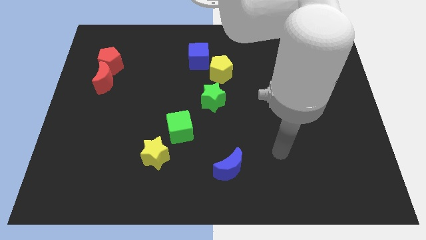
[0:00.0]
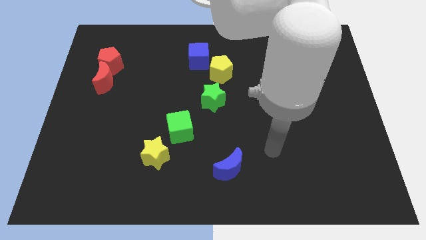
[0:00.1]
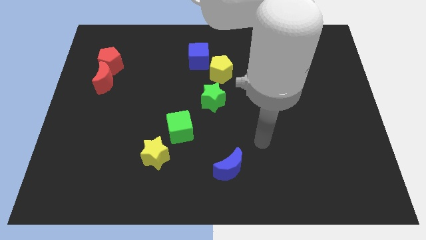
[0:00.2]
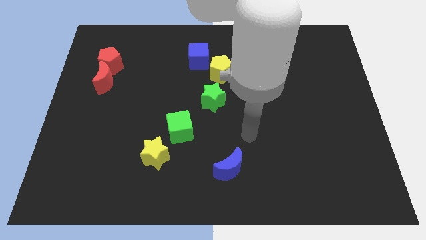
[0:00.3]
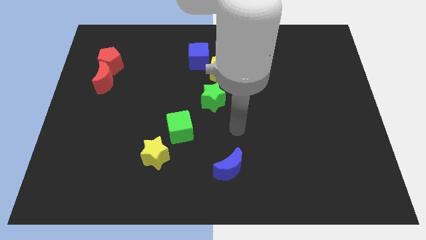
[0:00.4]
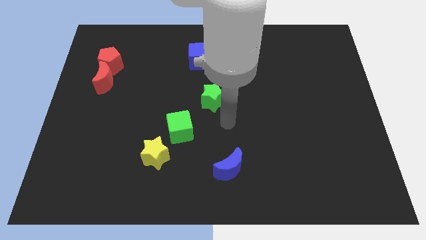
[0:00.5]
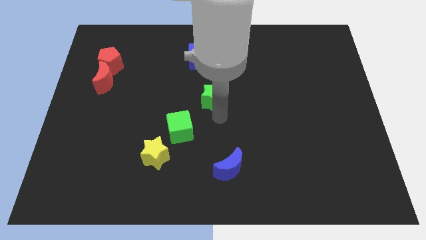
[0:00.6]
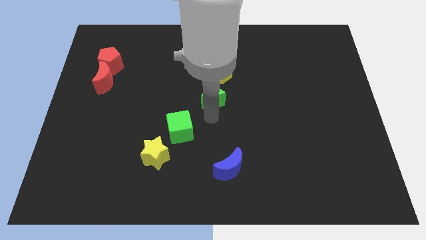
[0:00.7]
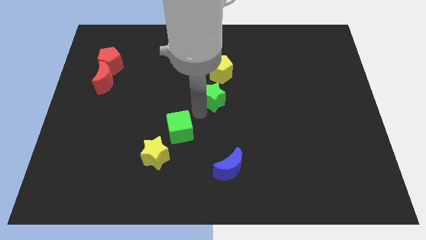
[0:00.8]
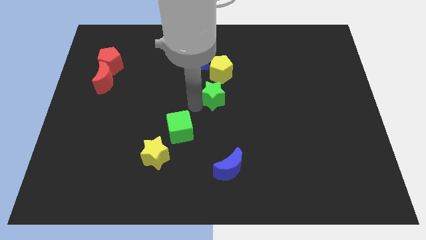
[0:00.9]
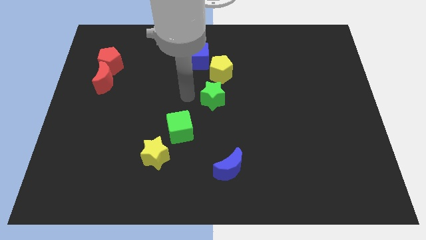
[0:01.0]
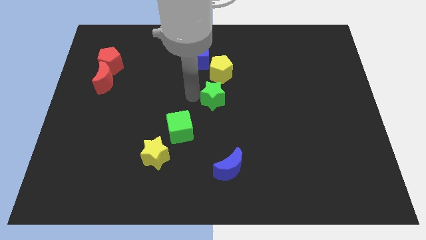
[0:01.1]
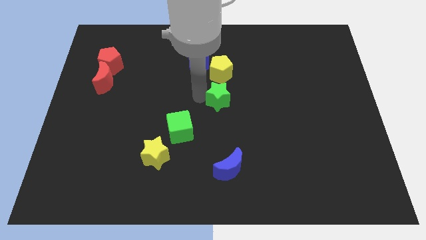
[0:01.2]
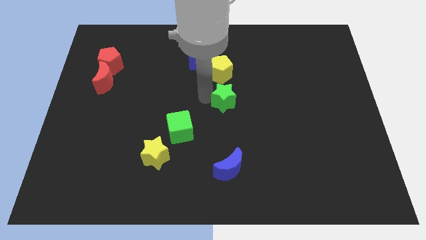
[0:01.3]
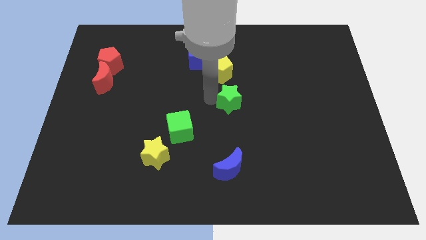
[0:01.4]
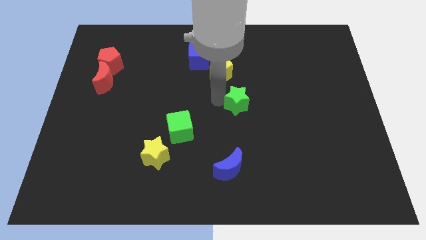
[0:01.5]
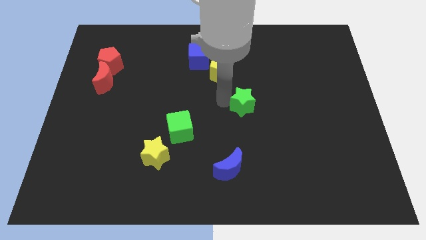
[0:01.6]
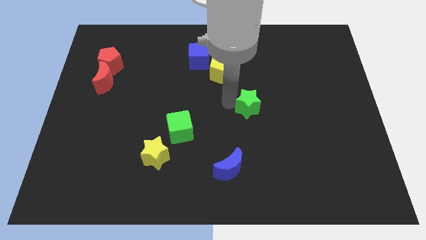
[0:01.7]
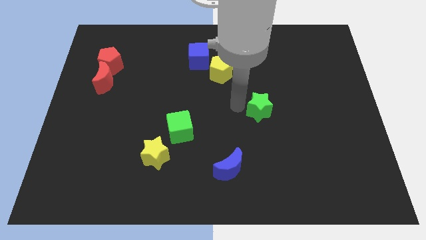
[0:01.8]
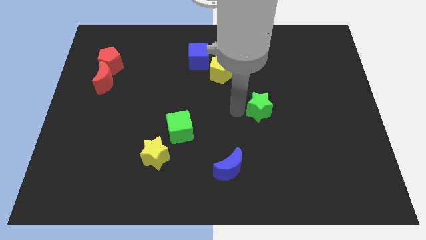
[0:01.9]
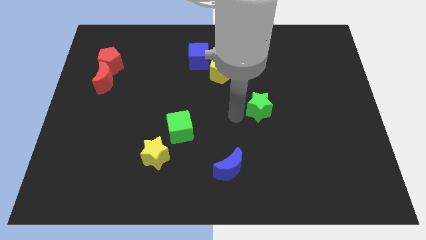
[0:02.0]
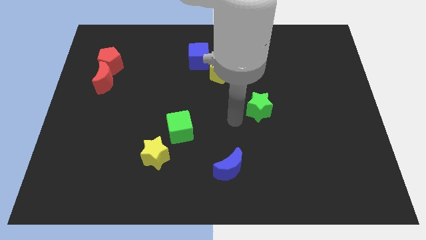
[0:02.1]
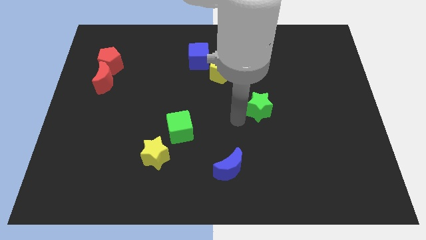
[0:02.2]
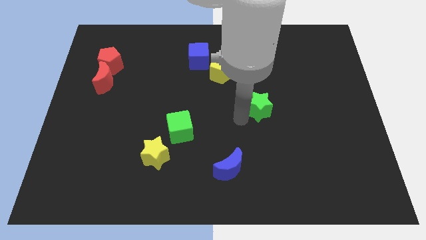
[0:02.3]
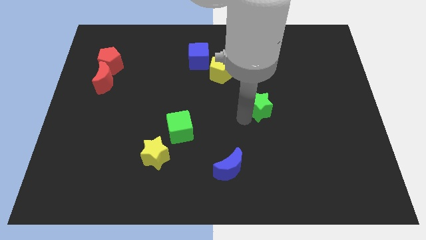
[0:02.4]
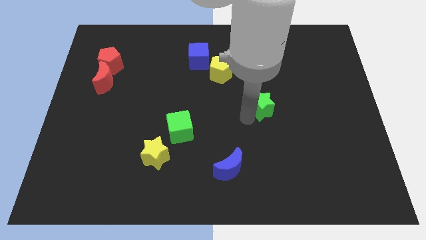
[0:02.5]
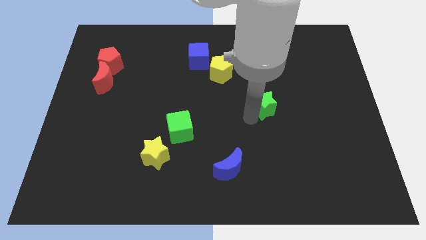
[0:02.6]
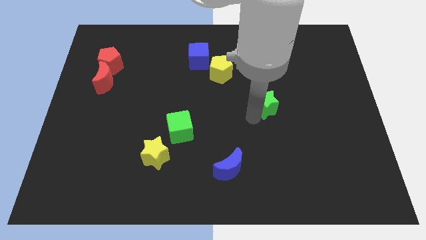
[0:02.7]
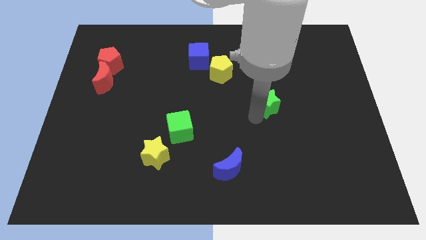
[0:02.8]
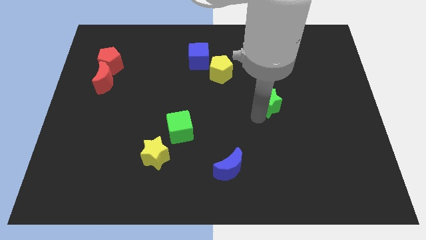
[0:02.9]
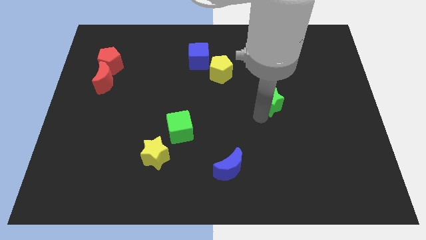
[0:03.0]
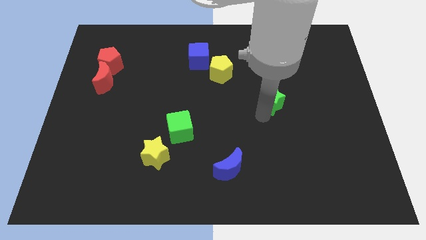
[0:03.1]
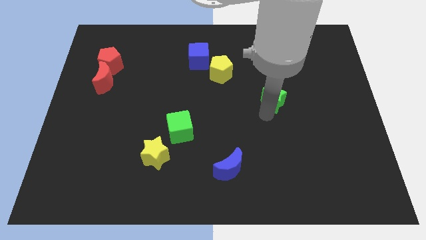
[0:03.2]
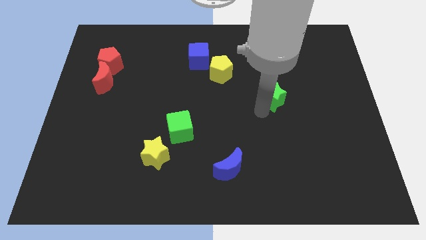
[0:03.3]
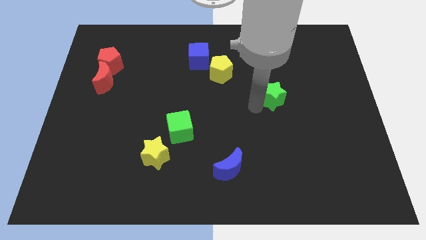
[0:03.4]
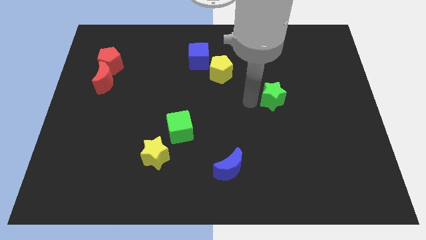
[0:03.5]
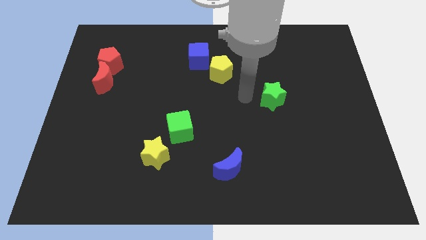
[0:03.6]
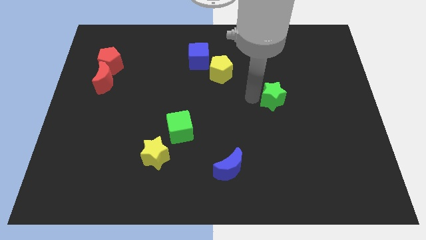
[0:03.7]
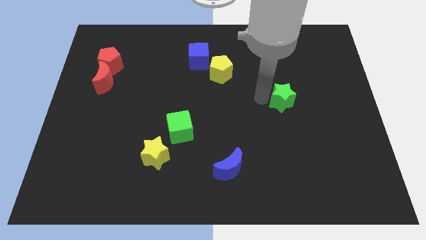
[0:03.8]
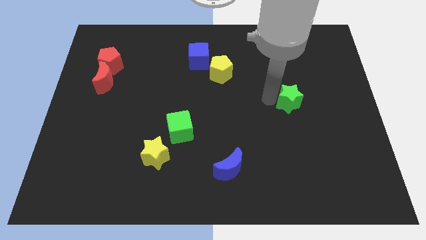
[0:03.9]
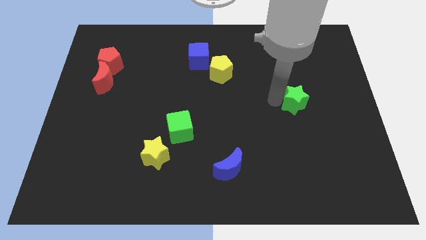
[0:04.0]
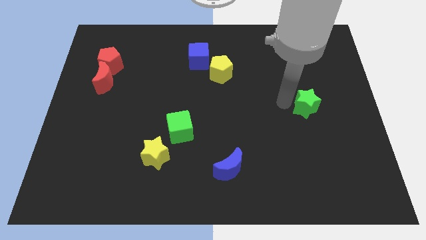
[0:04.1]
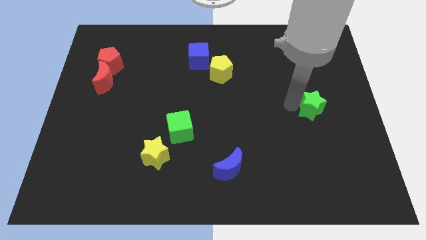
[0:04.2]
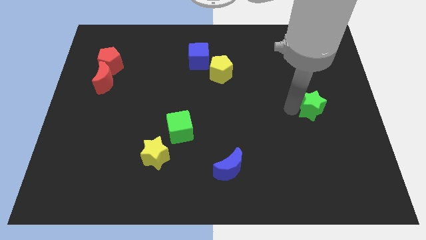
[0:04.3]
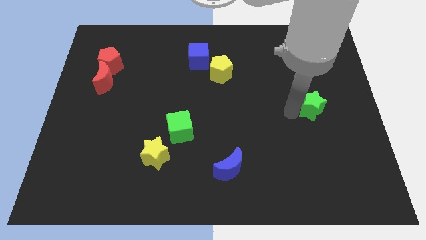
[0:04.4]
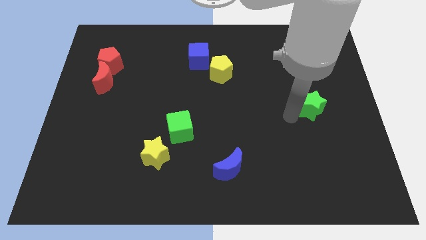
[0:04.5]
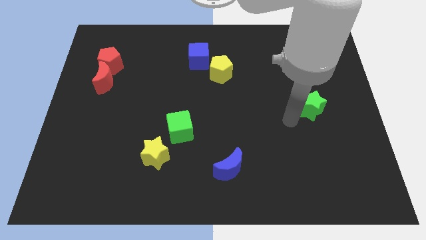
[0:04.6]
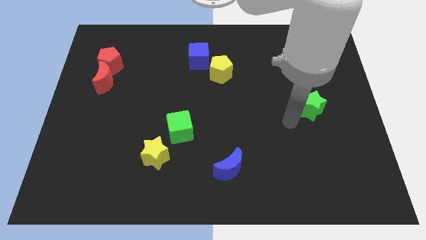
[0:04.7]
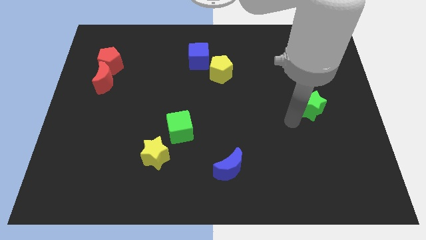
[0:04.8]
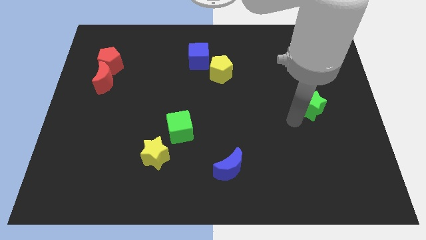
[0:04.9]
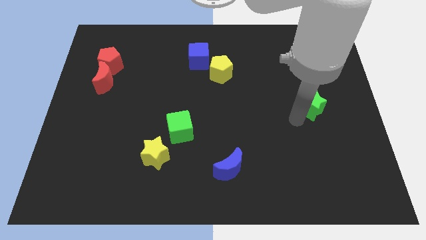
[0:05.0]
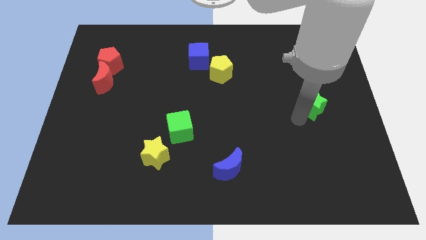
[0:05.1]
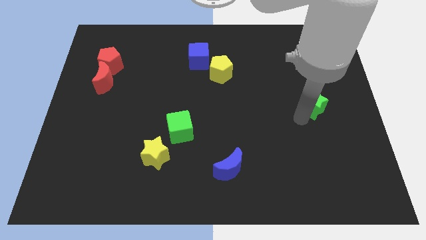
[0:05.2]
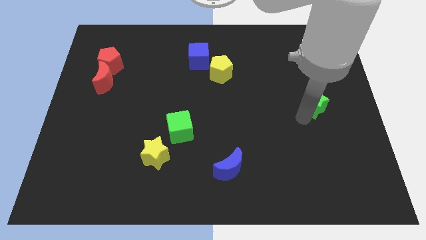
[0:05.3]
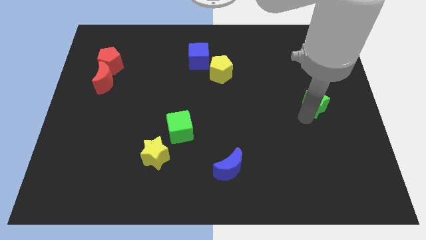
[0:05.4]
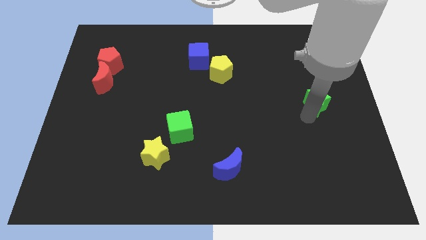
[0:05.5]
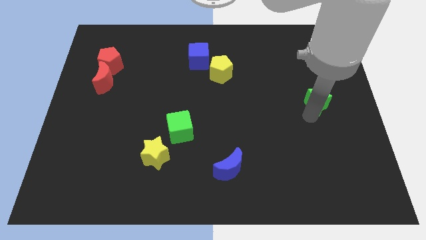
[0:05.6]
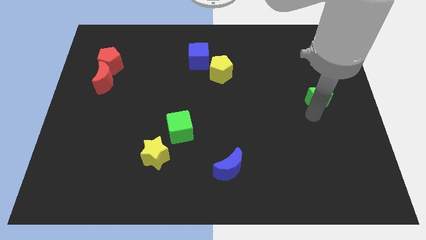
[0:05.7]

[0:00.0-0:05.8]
move the green star to the right side of the board

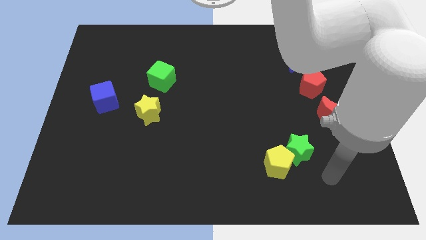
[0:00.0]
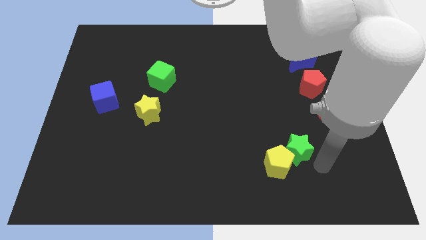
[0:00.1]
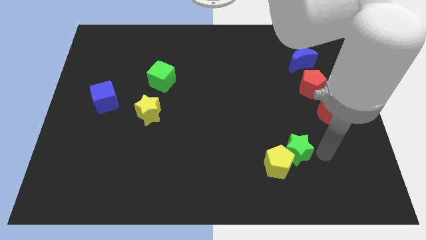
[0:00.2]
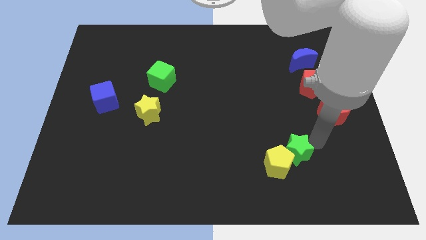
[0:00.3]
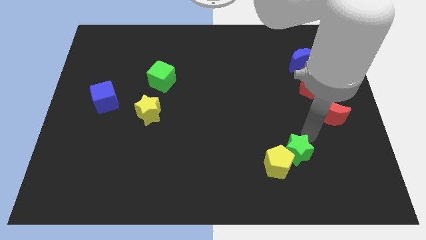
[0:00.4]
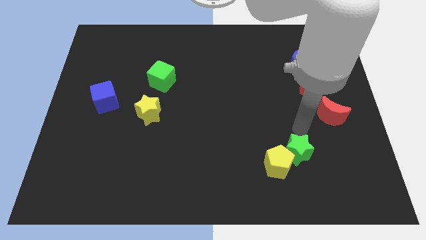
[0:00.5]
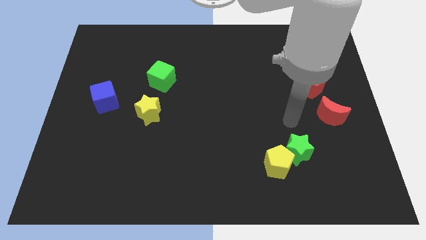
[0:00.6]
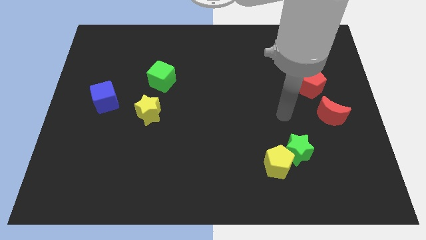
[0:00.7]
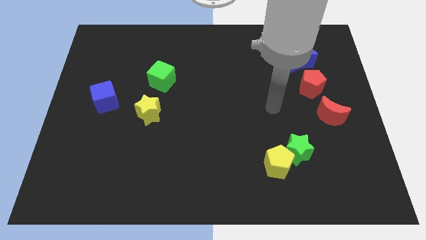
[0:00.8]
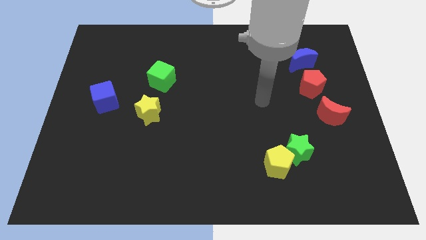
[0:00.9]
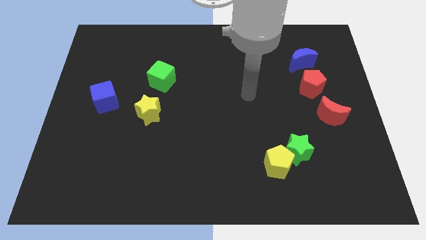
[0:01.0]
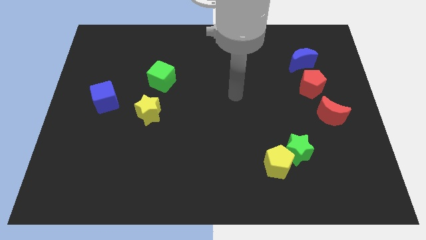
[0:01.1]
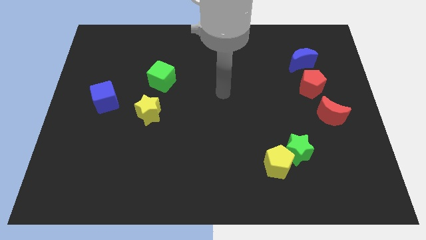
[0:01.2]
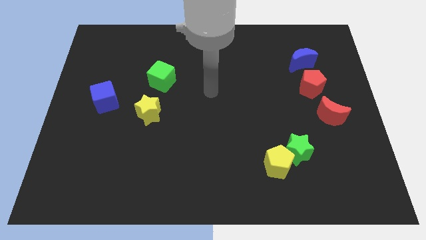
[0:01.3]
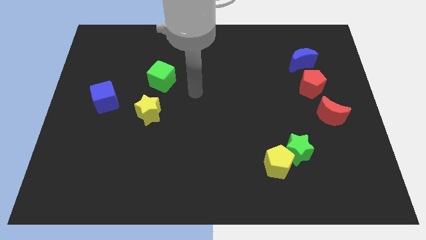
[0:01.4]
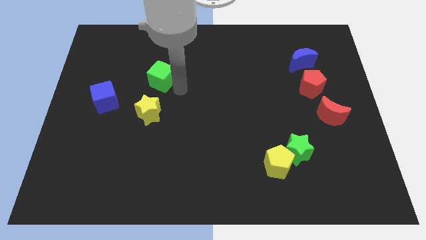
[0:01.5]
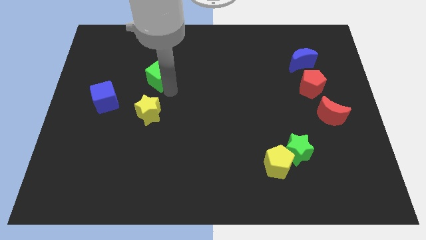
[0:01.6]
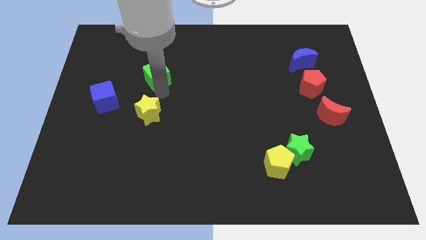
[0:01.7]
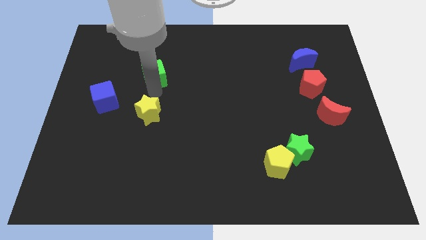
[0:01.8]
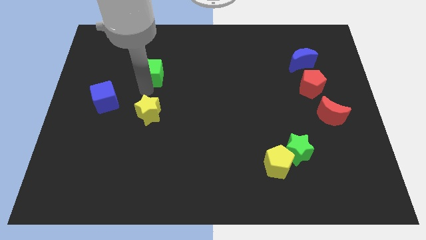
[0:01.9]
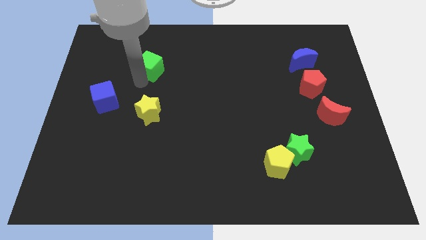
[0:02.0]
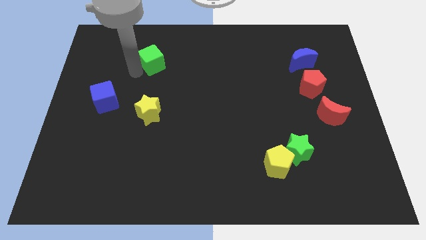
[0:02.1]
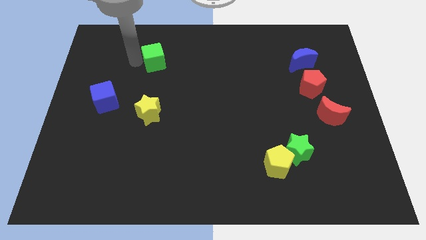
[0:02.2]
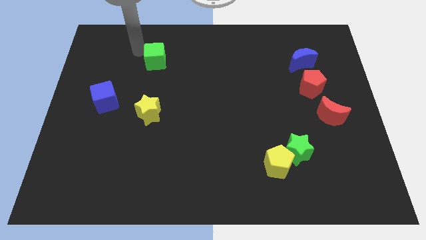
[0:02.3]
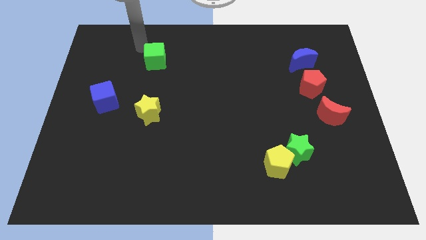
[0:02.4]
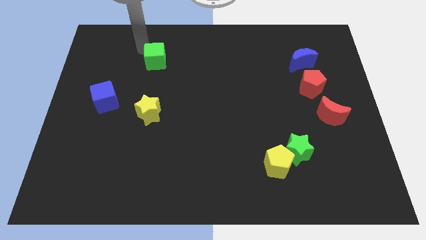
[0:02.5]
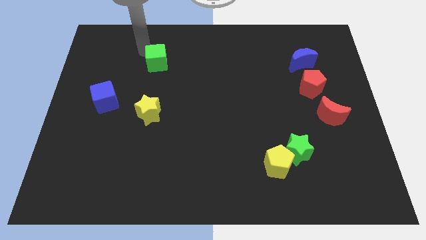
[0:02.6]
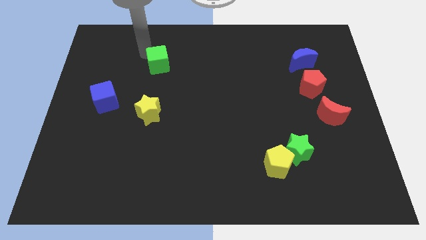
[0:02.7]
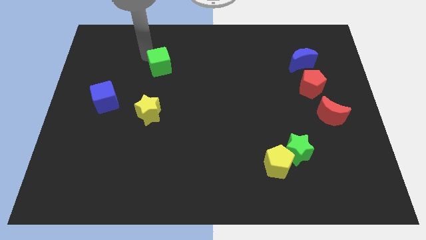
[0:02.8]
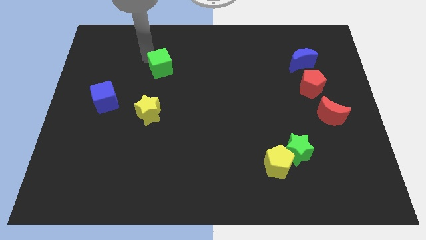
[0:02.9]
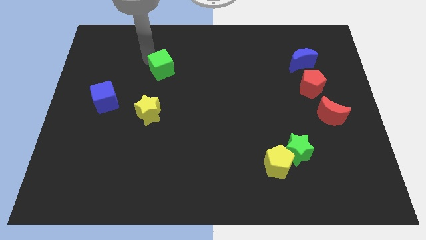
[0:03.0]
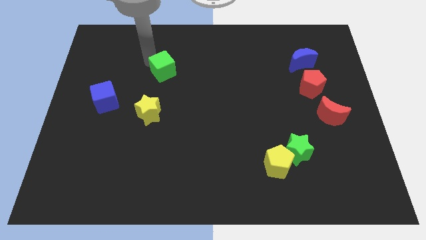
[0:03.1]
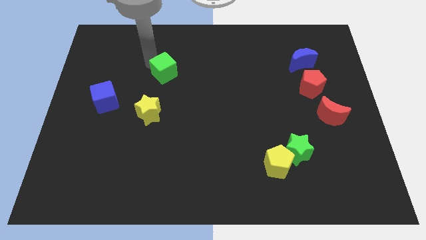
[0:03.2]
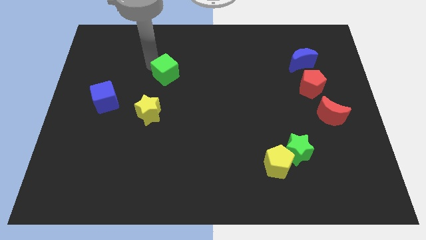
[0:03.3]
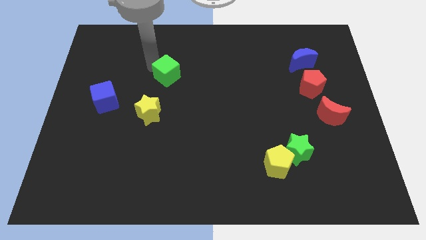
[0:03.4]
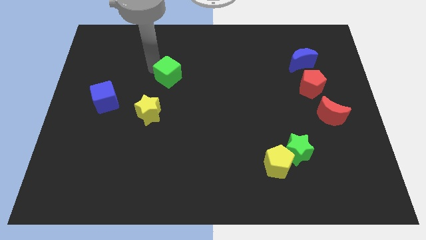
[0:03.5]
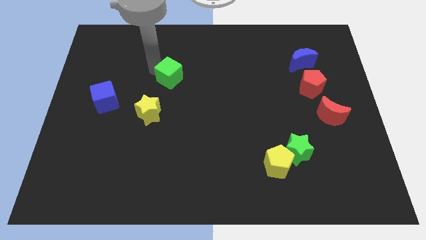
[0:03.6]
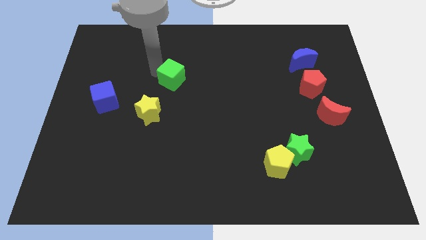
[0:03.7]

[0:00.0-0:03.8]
move the green cube to the middle
